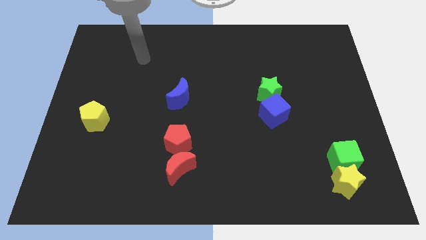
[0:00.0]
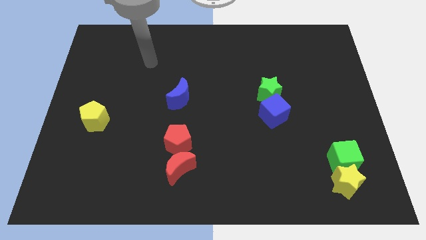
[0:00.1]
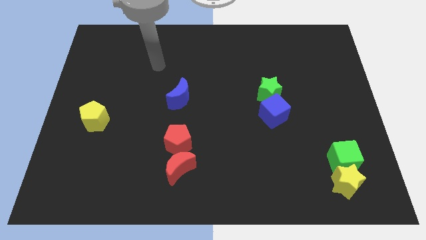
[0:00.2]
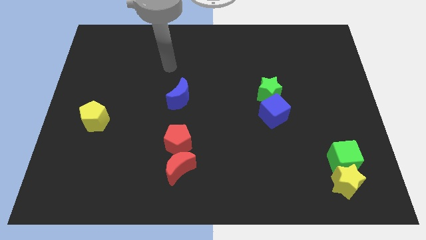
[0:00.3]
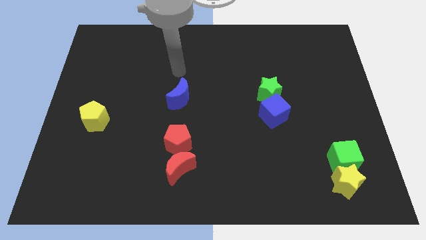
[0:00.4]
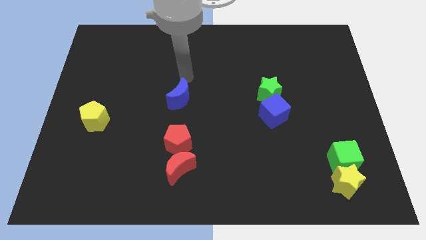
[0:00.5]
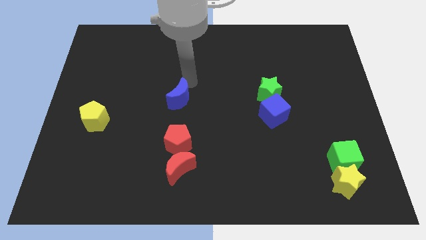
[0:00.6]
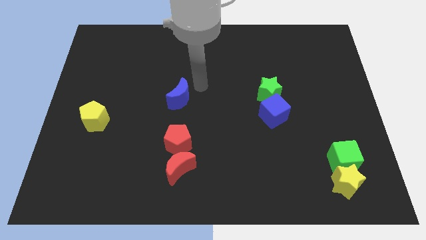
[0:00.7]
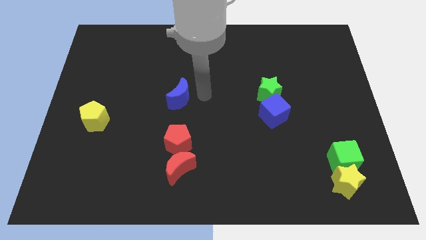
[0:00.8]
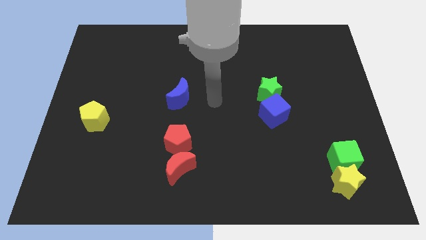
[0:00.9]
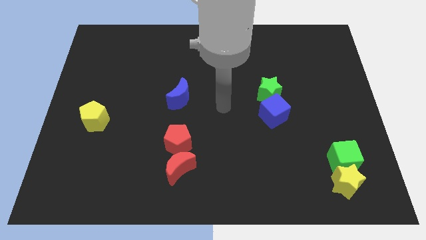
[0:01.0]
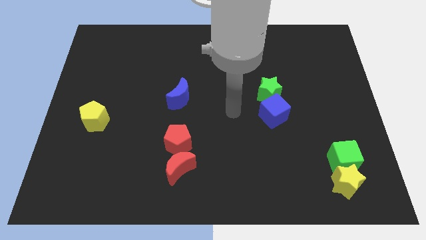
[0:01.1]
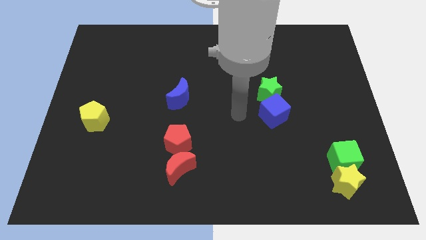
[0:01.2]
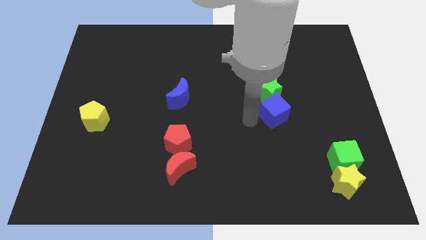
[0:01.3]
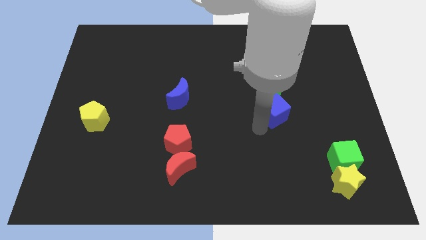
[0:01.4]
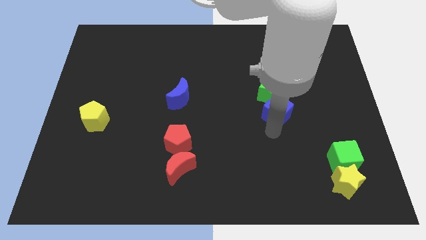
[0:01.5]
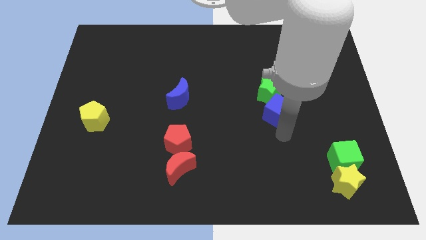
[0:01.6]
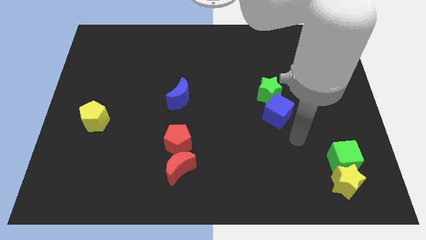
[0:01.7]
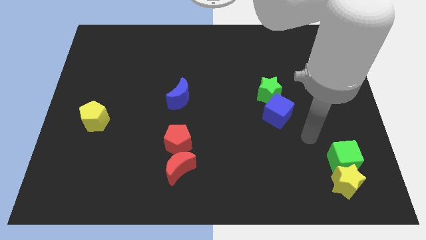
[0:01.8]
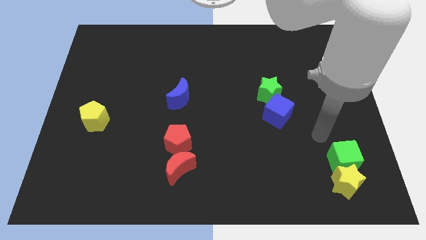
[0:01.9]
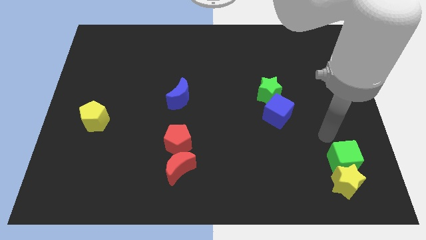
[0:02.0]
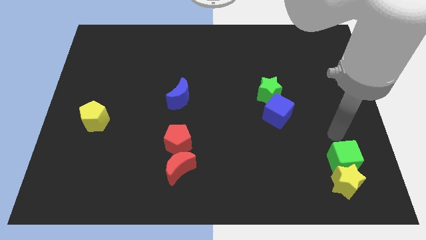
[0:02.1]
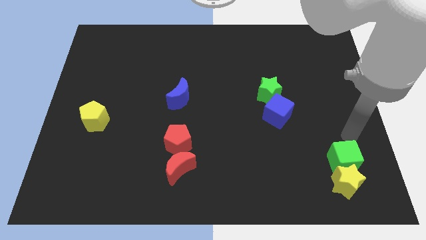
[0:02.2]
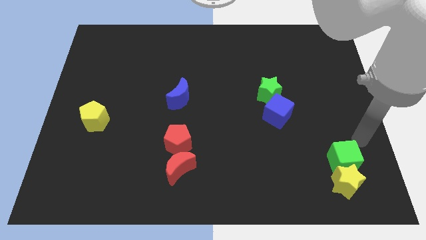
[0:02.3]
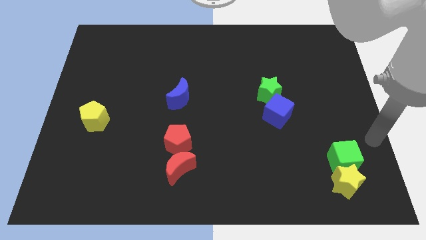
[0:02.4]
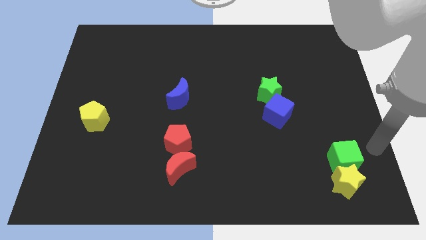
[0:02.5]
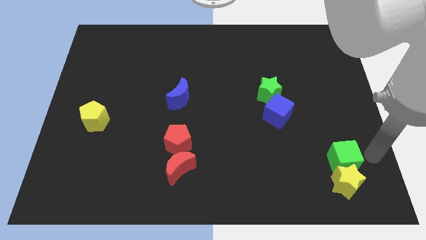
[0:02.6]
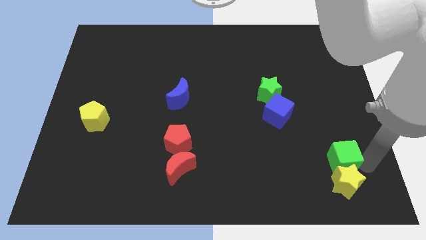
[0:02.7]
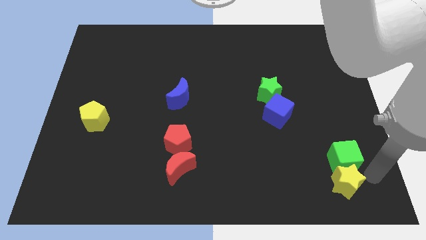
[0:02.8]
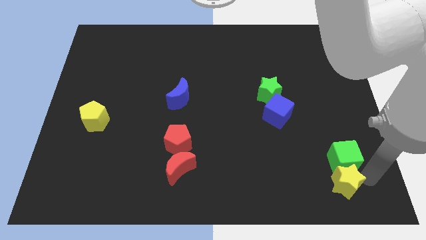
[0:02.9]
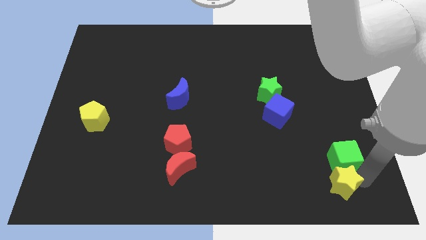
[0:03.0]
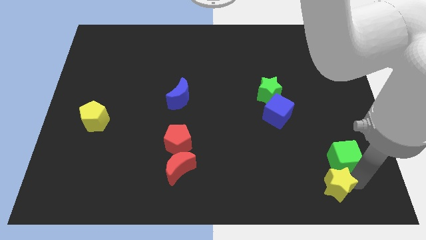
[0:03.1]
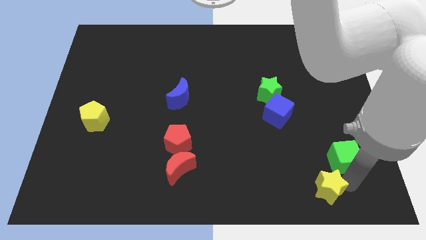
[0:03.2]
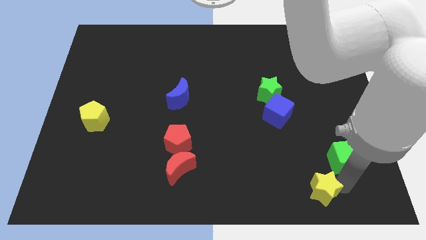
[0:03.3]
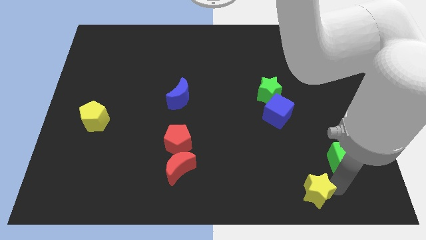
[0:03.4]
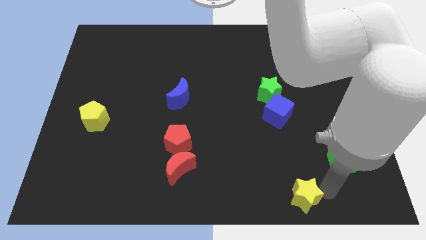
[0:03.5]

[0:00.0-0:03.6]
slide the yellow star left a bit

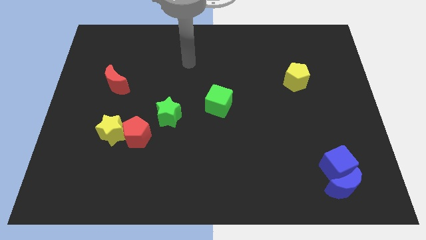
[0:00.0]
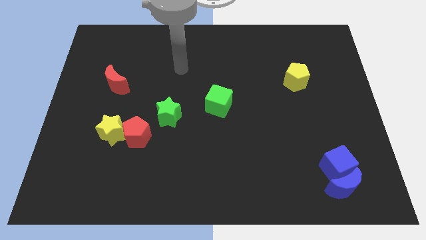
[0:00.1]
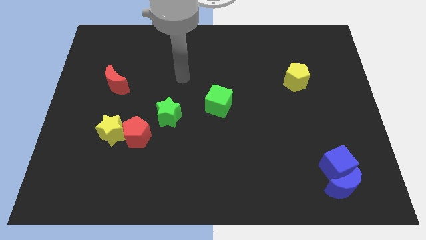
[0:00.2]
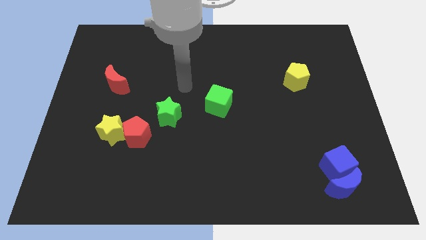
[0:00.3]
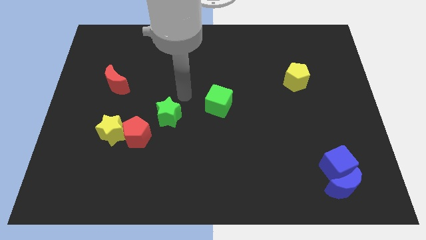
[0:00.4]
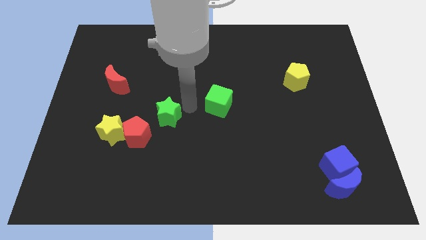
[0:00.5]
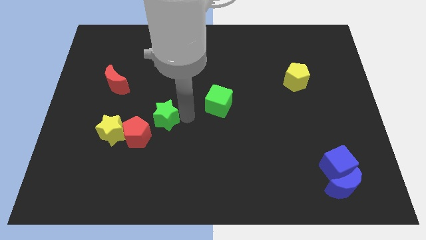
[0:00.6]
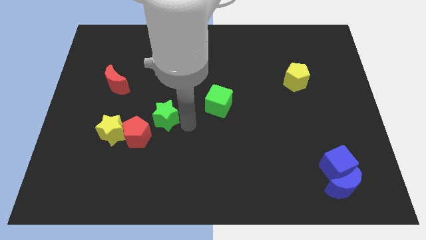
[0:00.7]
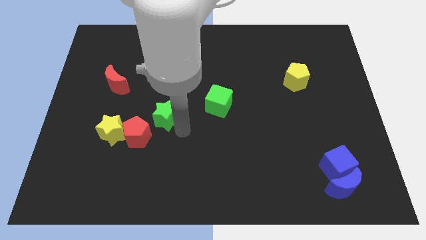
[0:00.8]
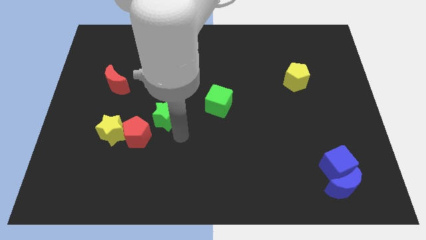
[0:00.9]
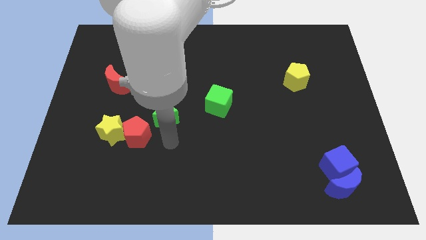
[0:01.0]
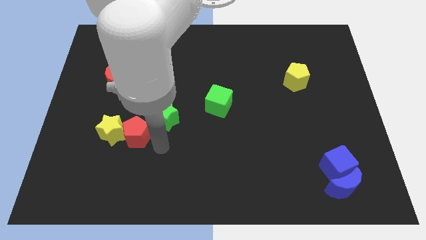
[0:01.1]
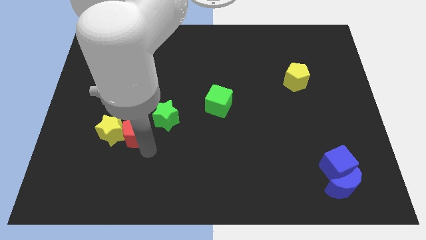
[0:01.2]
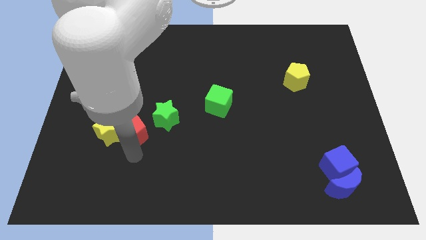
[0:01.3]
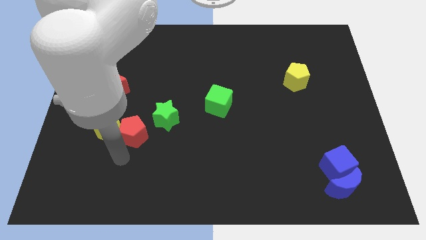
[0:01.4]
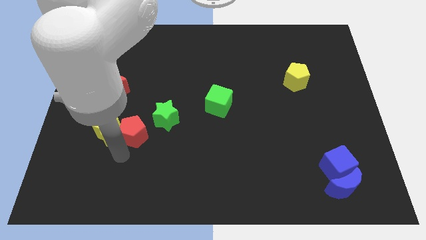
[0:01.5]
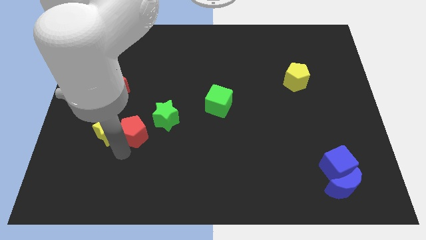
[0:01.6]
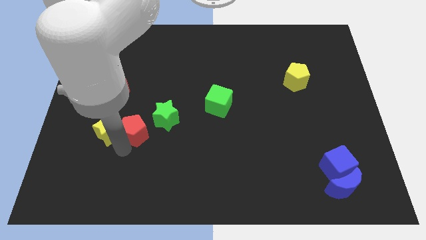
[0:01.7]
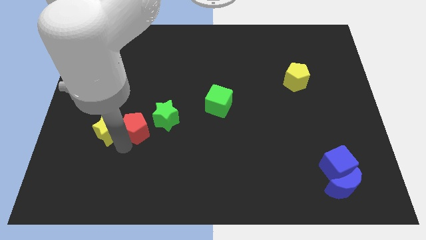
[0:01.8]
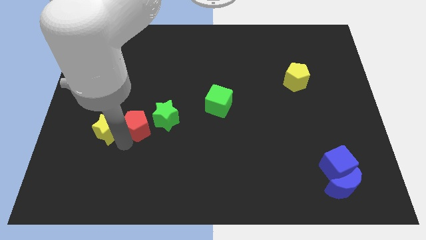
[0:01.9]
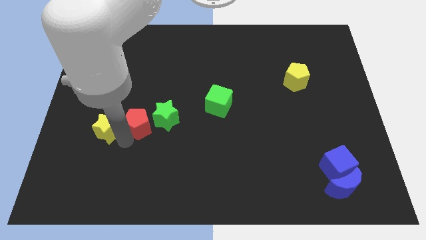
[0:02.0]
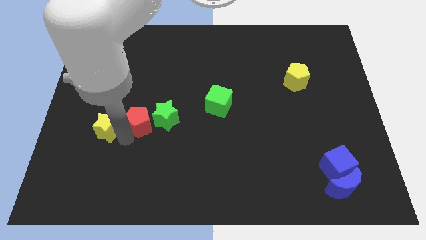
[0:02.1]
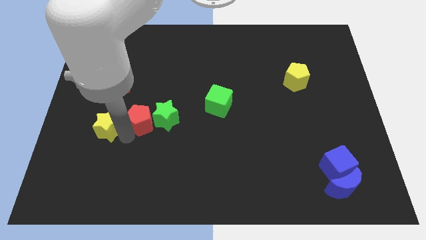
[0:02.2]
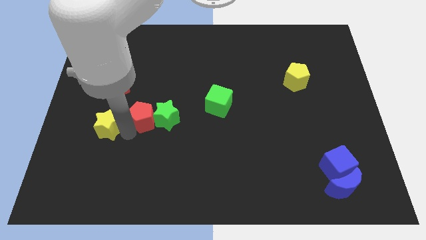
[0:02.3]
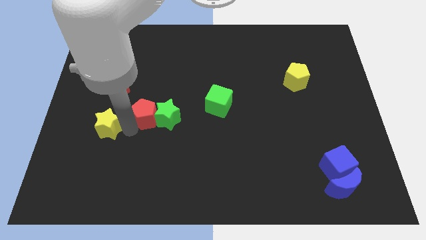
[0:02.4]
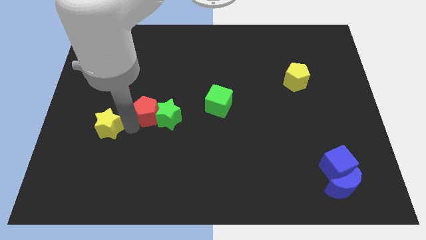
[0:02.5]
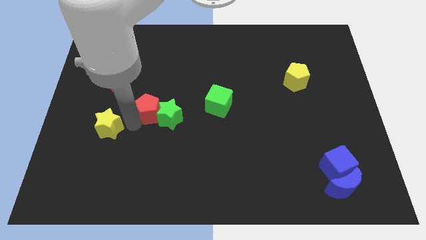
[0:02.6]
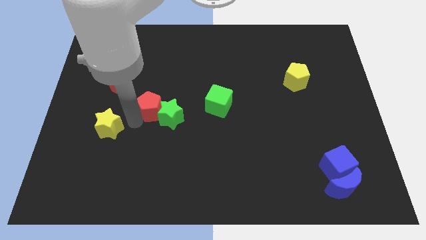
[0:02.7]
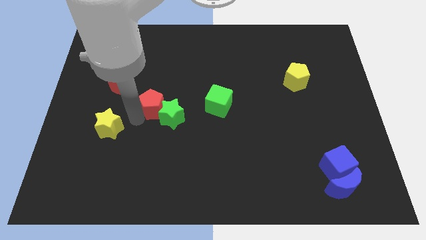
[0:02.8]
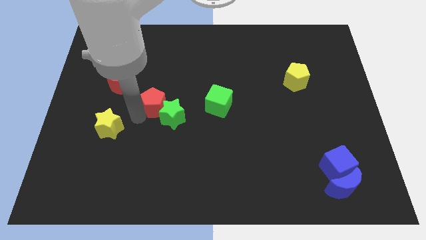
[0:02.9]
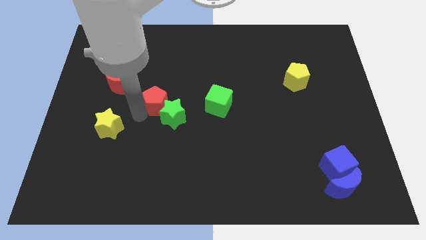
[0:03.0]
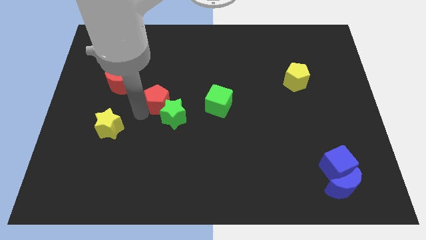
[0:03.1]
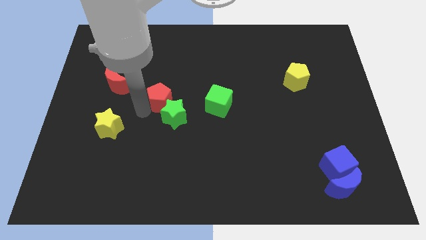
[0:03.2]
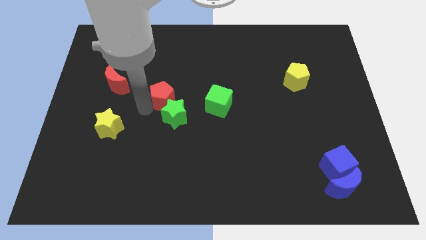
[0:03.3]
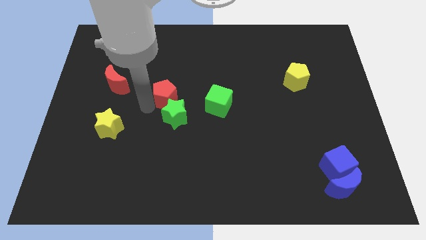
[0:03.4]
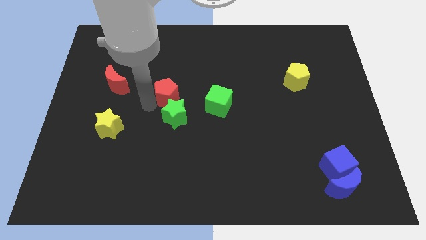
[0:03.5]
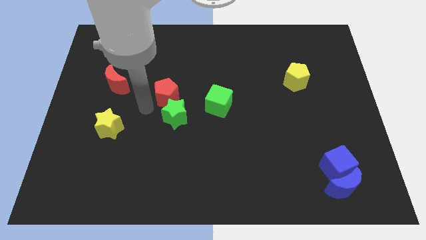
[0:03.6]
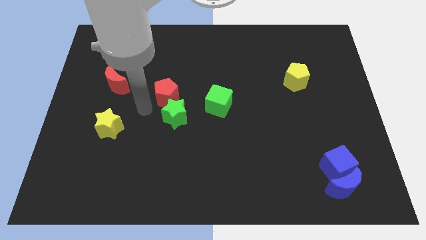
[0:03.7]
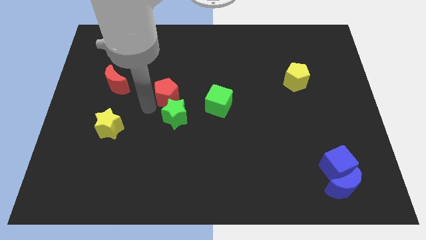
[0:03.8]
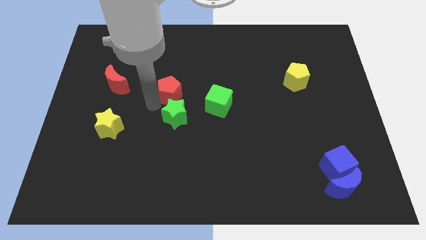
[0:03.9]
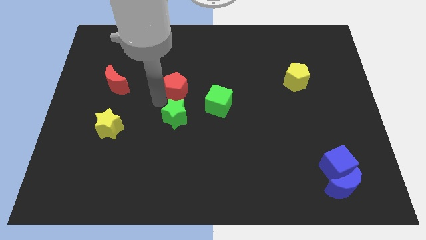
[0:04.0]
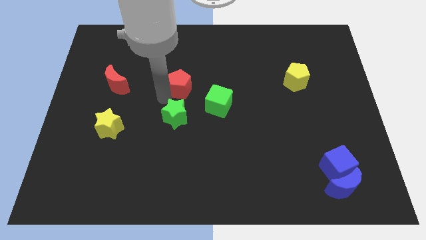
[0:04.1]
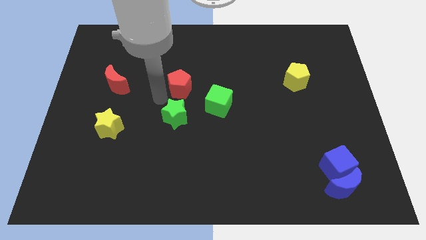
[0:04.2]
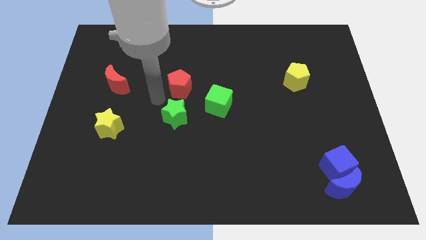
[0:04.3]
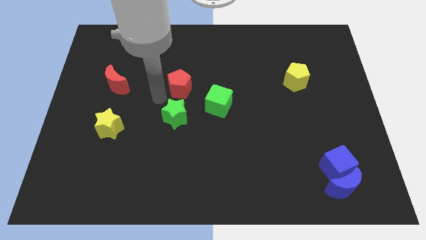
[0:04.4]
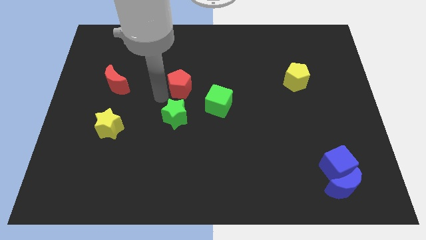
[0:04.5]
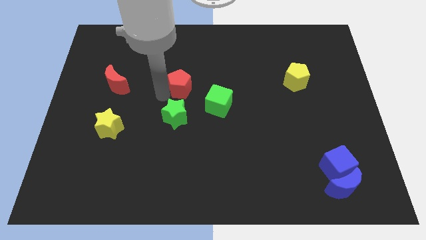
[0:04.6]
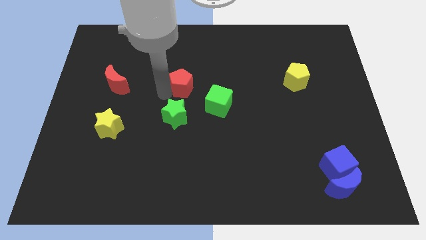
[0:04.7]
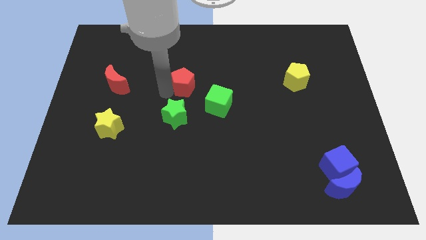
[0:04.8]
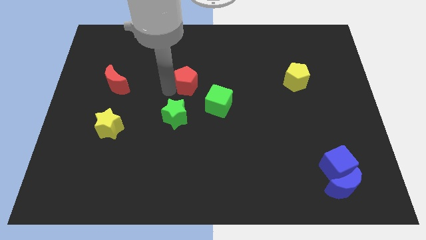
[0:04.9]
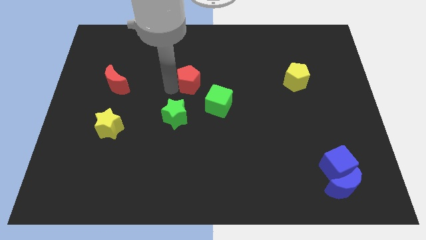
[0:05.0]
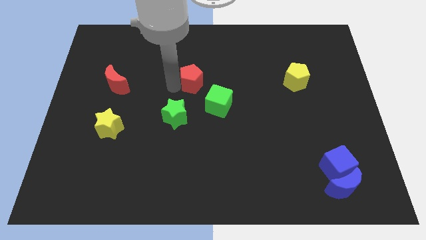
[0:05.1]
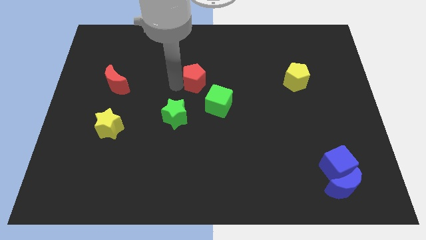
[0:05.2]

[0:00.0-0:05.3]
slide the red pentagon up and right diagonally
